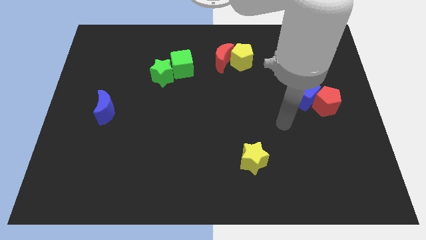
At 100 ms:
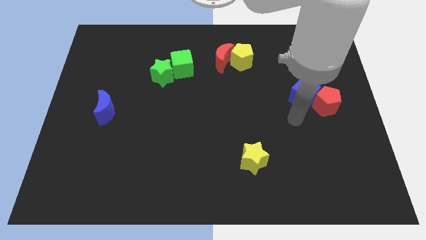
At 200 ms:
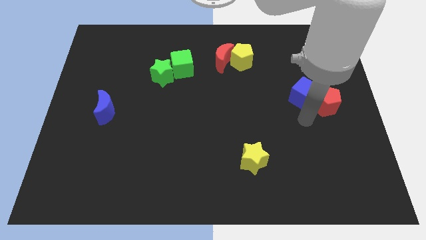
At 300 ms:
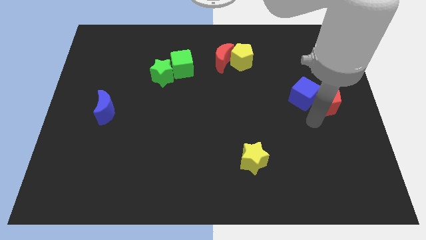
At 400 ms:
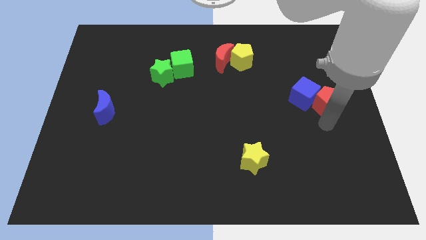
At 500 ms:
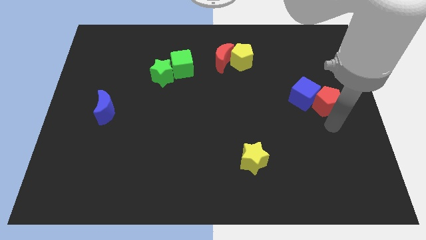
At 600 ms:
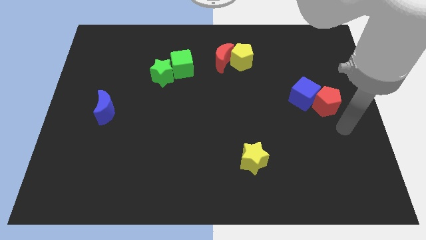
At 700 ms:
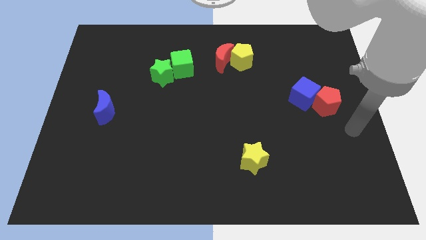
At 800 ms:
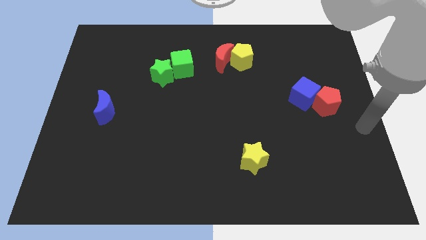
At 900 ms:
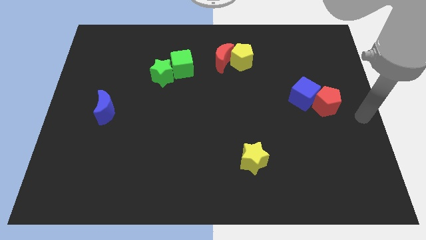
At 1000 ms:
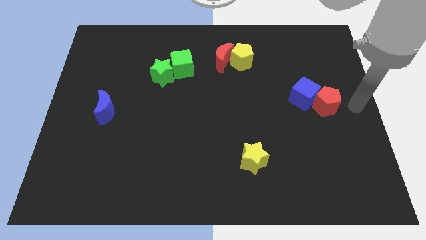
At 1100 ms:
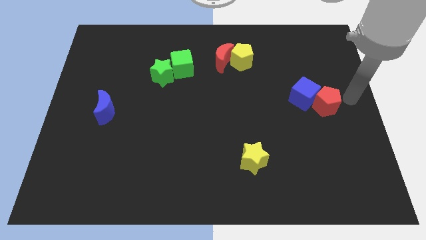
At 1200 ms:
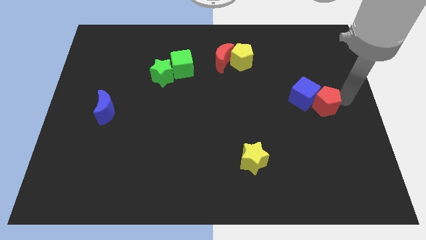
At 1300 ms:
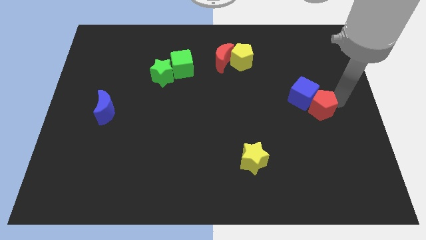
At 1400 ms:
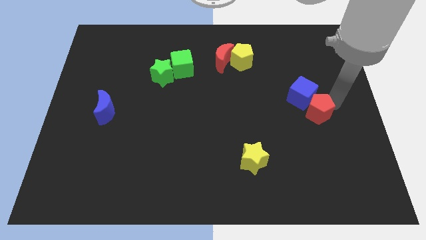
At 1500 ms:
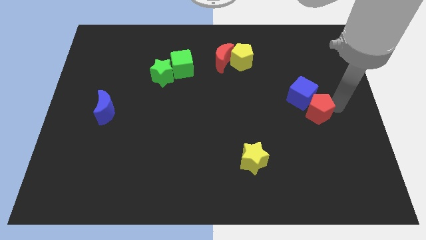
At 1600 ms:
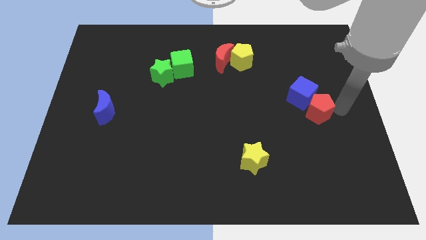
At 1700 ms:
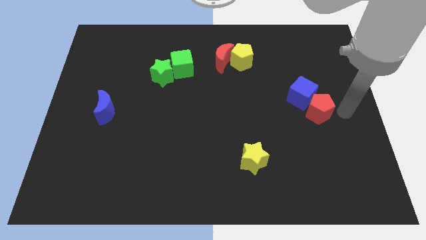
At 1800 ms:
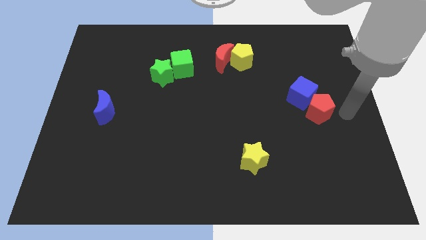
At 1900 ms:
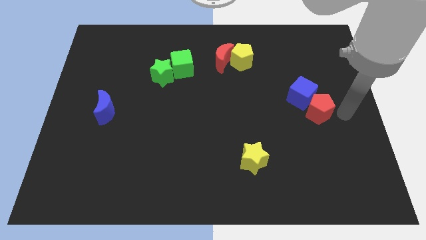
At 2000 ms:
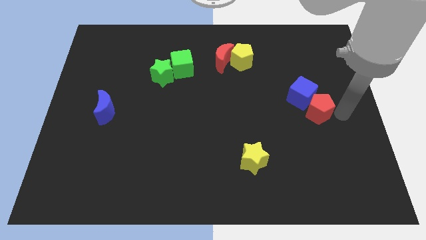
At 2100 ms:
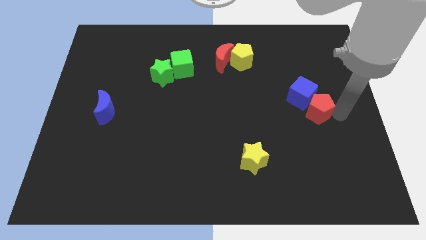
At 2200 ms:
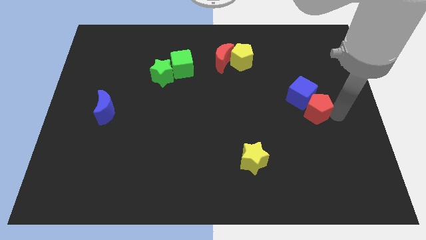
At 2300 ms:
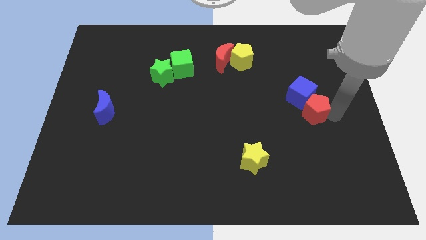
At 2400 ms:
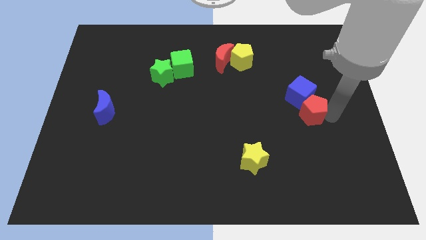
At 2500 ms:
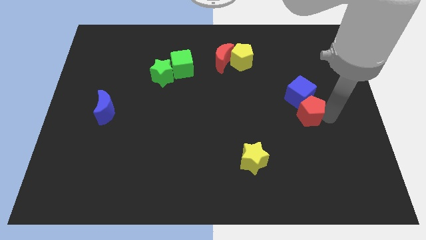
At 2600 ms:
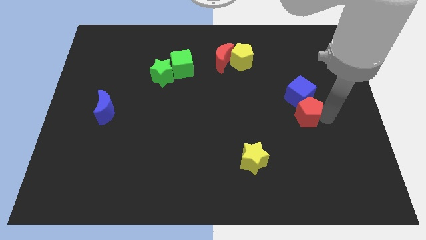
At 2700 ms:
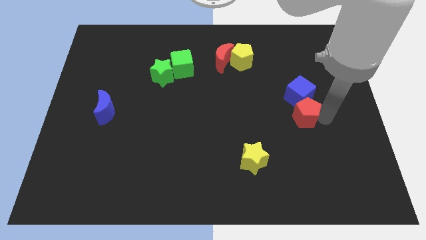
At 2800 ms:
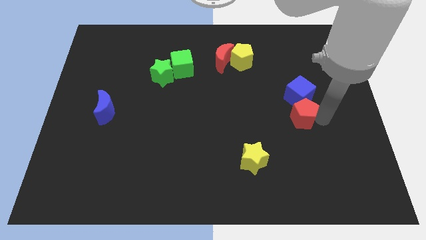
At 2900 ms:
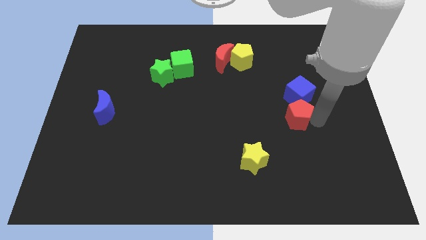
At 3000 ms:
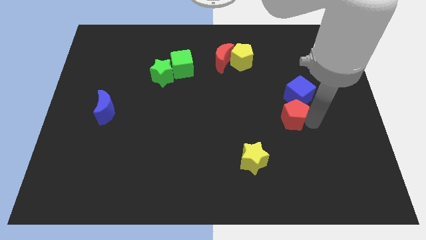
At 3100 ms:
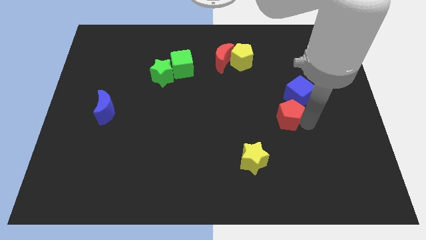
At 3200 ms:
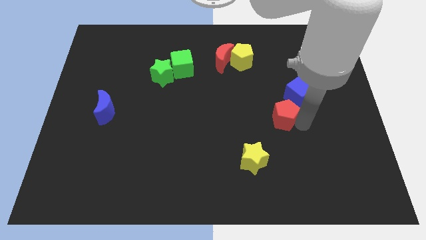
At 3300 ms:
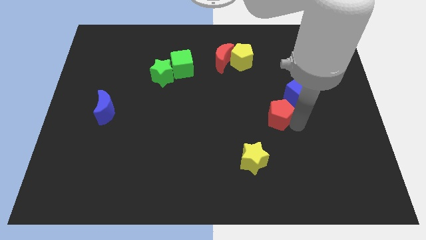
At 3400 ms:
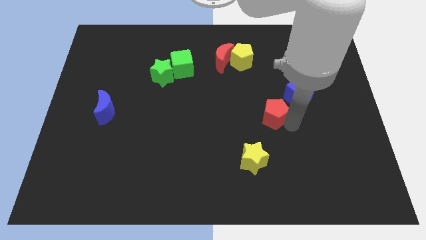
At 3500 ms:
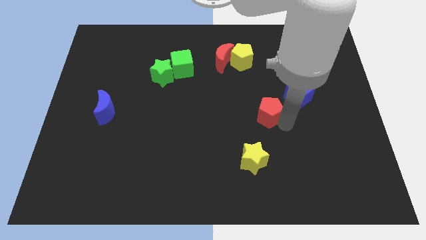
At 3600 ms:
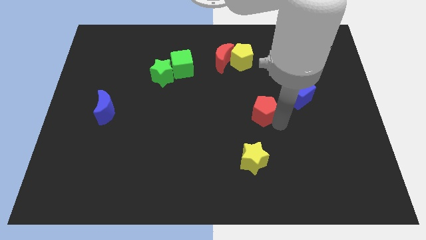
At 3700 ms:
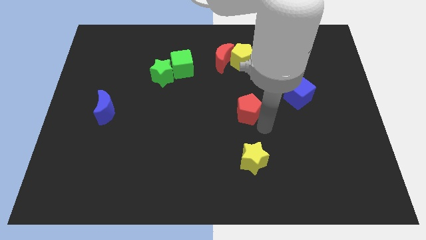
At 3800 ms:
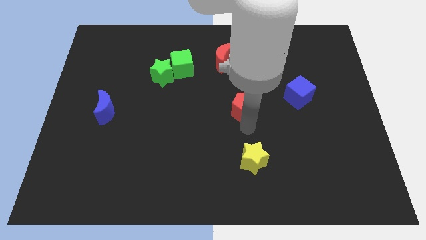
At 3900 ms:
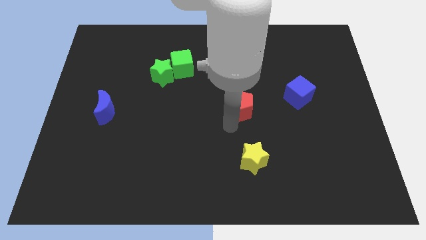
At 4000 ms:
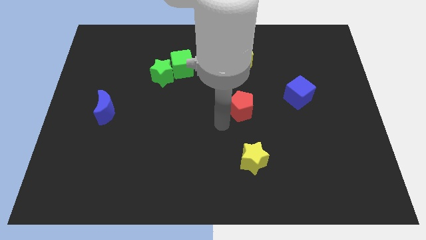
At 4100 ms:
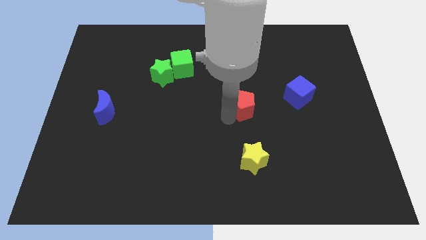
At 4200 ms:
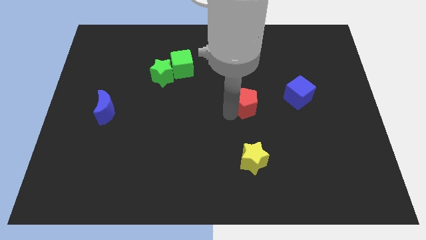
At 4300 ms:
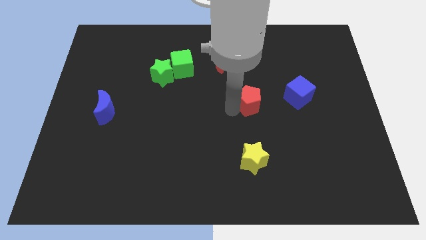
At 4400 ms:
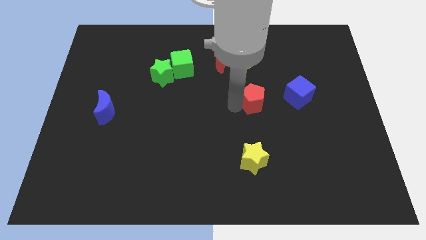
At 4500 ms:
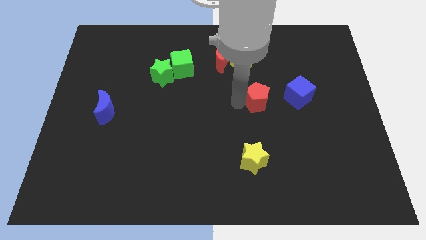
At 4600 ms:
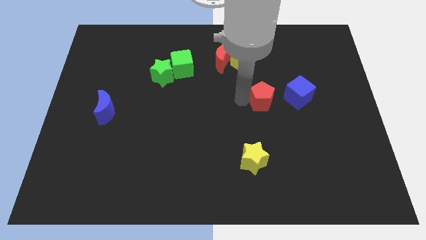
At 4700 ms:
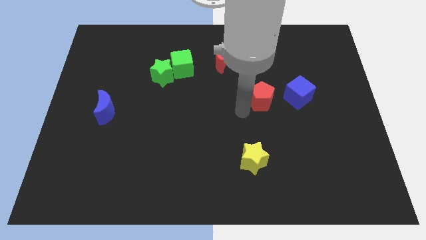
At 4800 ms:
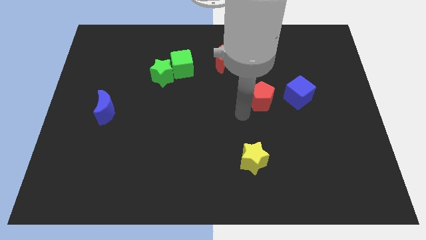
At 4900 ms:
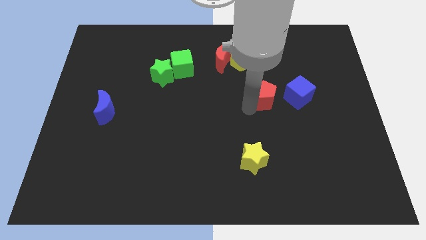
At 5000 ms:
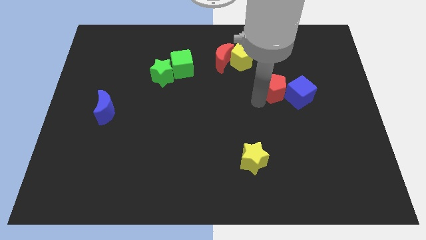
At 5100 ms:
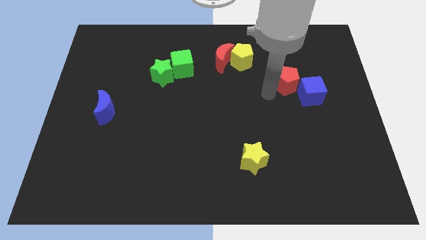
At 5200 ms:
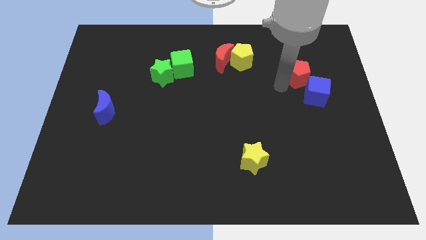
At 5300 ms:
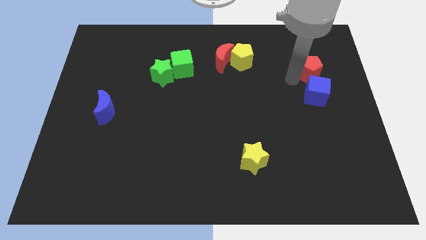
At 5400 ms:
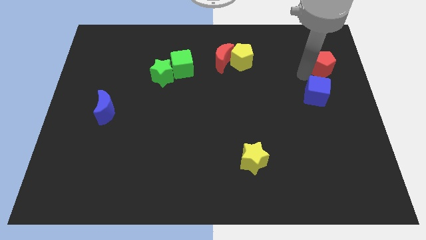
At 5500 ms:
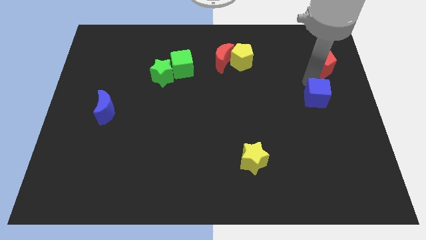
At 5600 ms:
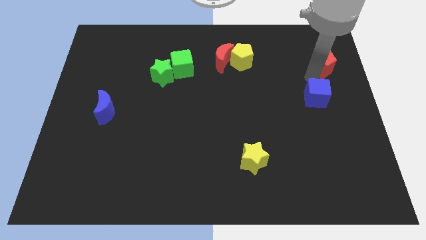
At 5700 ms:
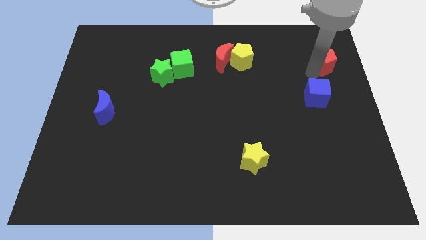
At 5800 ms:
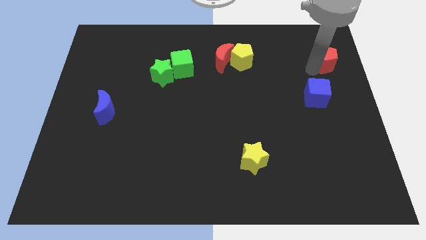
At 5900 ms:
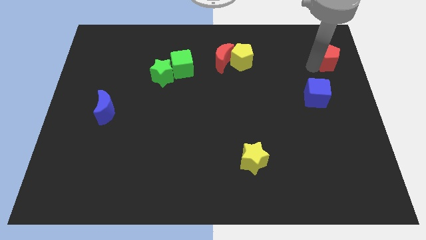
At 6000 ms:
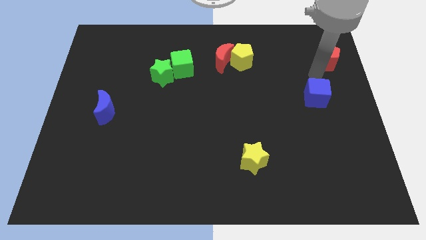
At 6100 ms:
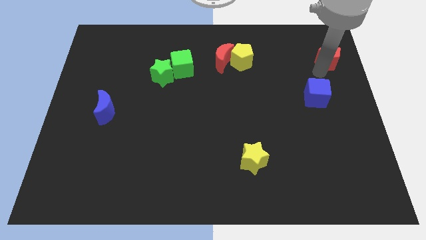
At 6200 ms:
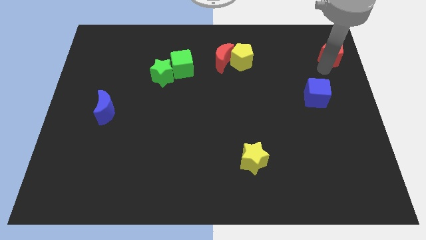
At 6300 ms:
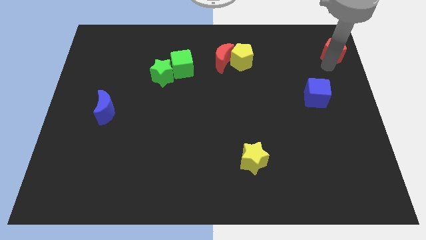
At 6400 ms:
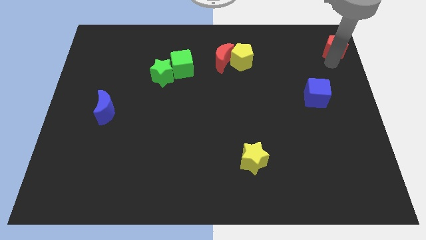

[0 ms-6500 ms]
push the red pentagon to the top right corner
